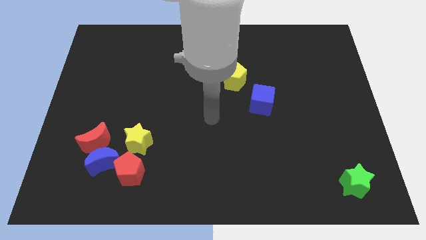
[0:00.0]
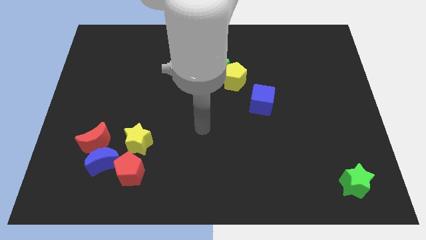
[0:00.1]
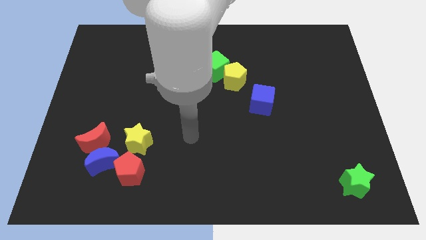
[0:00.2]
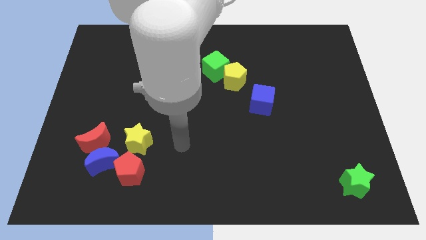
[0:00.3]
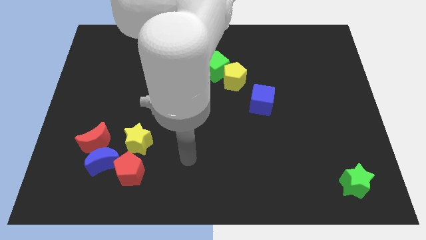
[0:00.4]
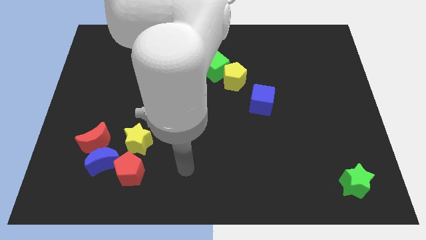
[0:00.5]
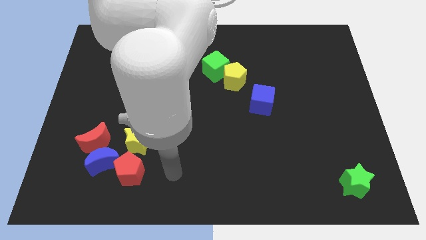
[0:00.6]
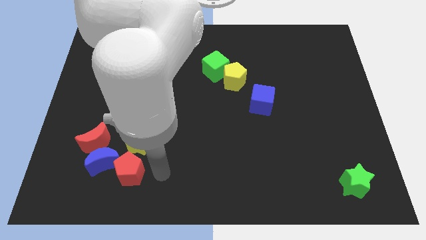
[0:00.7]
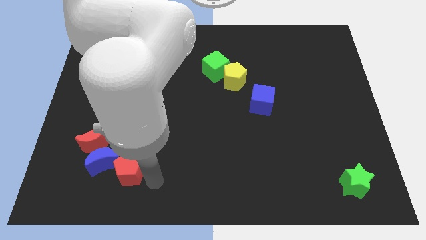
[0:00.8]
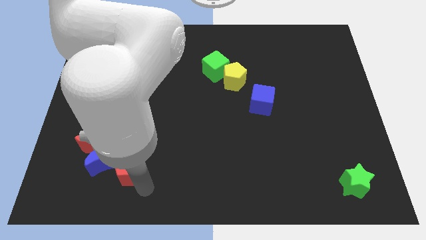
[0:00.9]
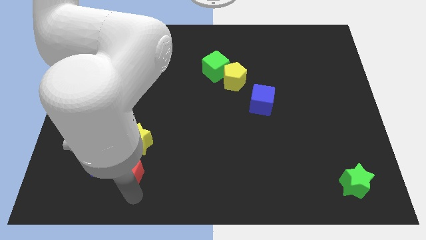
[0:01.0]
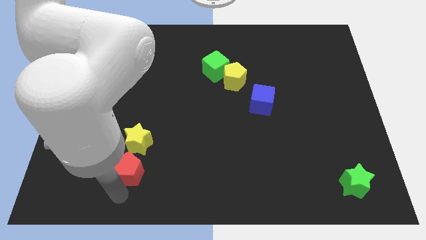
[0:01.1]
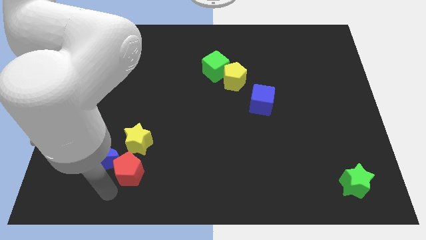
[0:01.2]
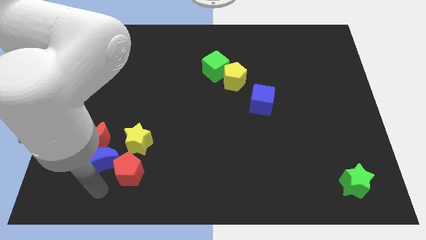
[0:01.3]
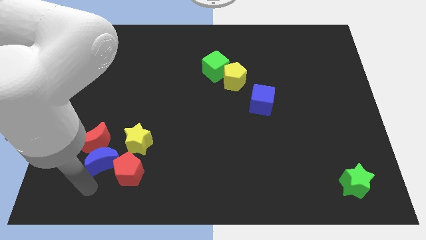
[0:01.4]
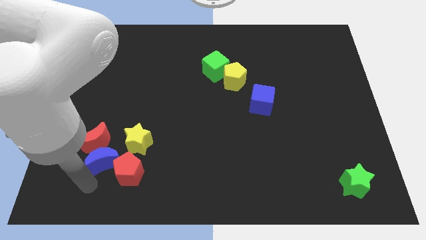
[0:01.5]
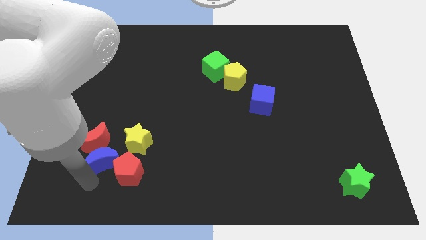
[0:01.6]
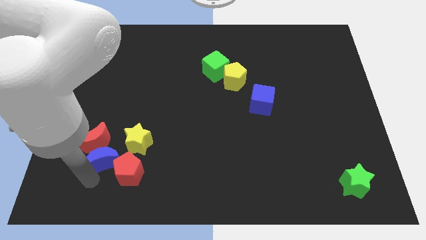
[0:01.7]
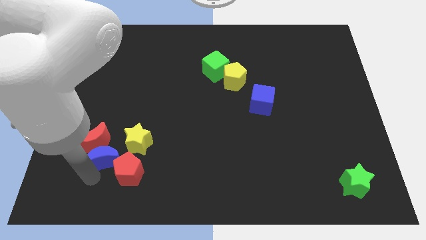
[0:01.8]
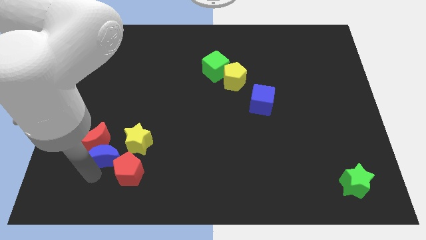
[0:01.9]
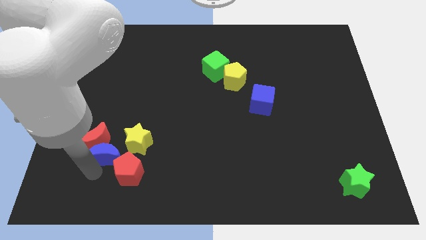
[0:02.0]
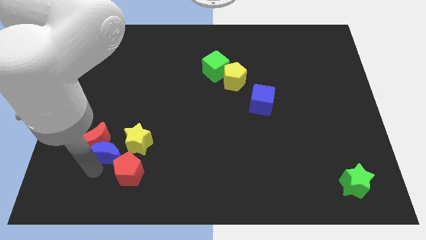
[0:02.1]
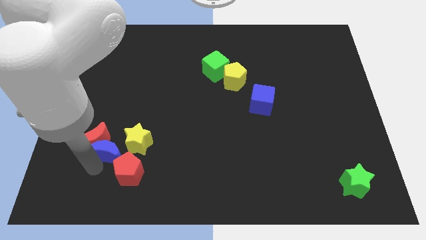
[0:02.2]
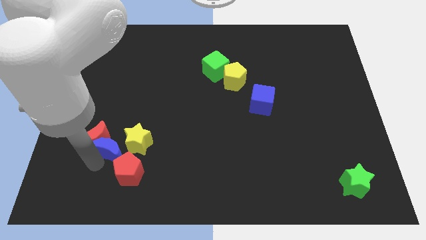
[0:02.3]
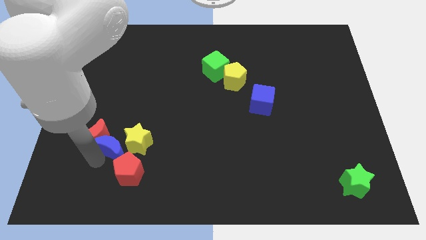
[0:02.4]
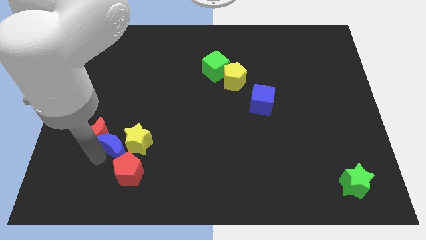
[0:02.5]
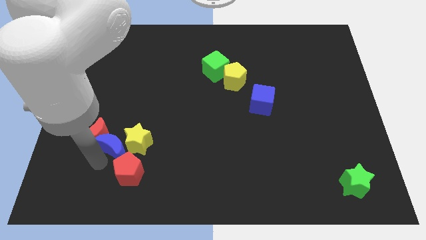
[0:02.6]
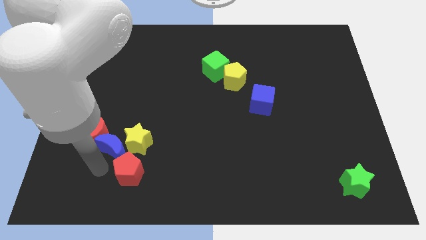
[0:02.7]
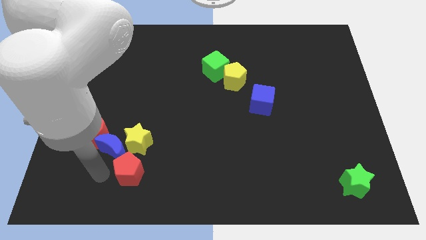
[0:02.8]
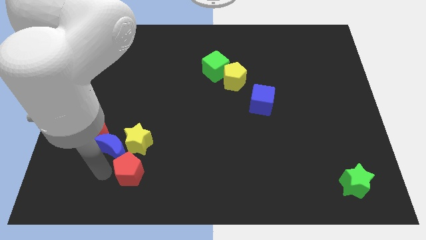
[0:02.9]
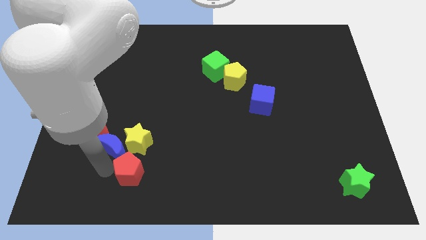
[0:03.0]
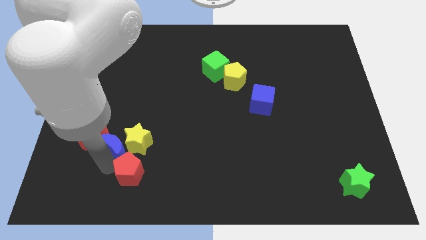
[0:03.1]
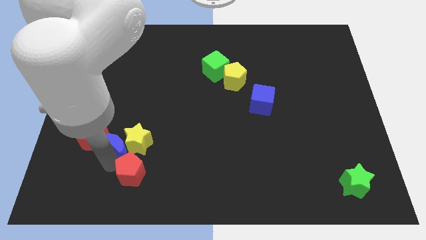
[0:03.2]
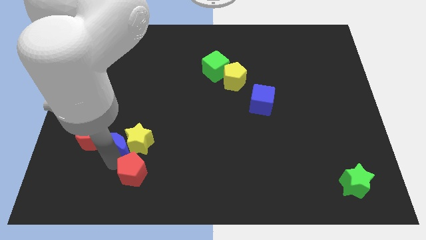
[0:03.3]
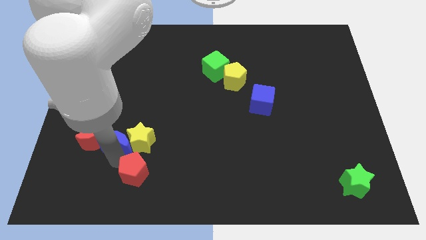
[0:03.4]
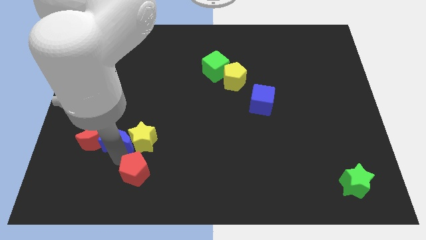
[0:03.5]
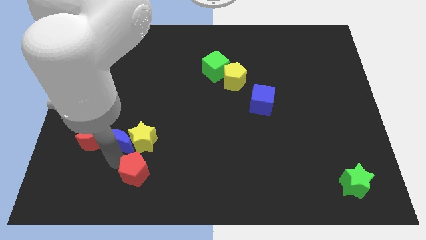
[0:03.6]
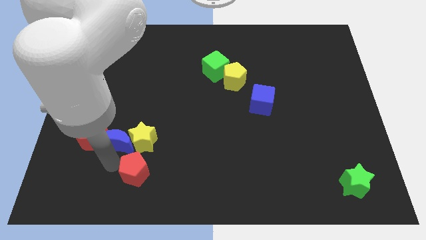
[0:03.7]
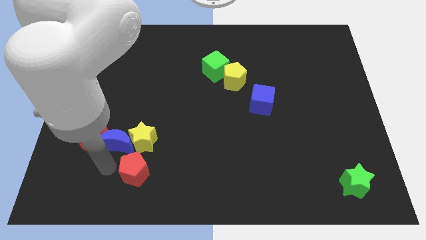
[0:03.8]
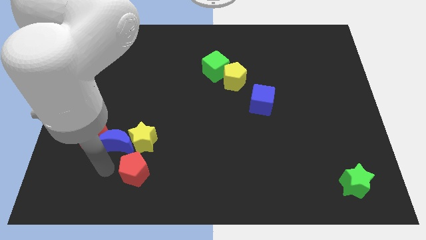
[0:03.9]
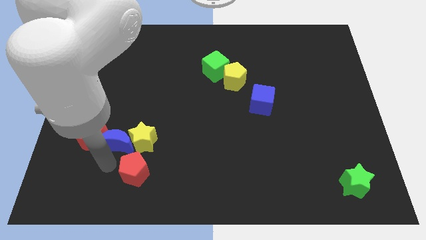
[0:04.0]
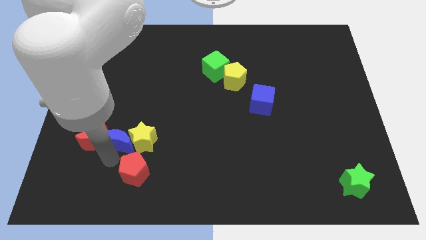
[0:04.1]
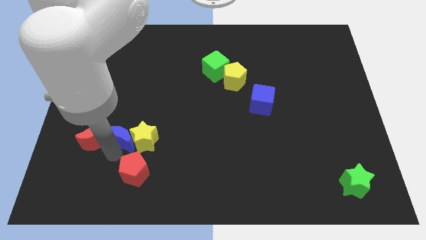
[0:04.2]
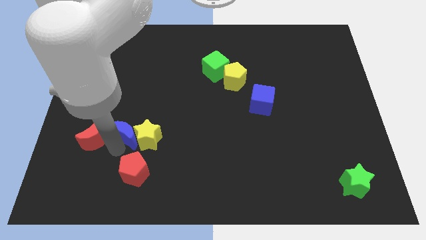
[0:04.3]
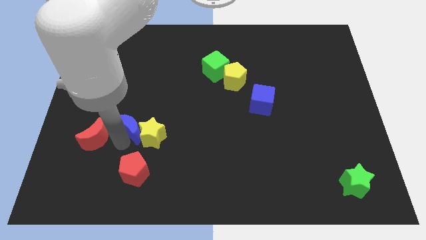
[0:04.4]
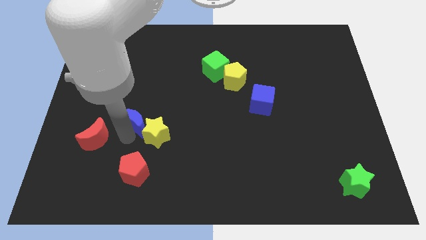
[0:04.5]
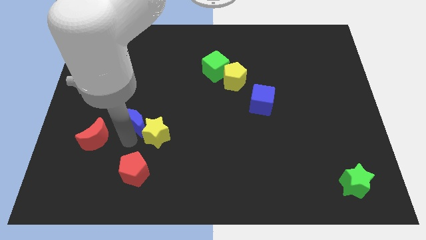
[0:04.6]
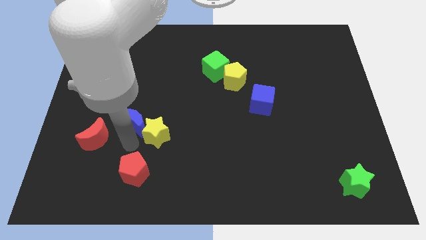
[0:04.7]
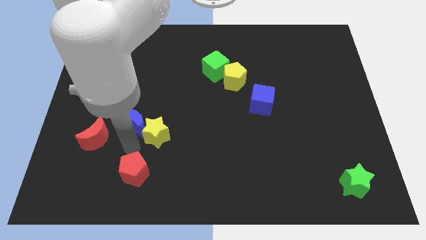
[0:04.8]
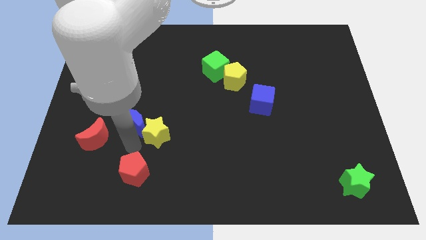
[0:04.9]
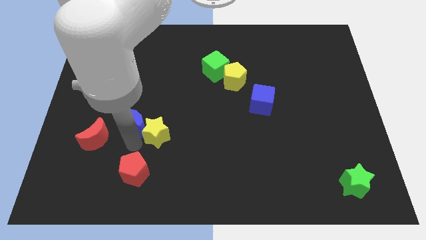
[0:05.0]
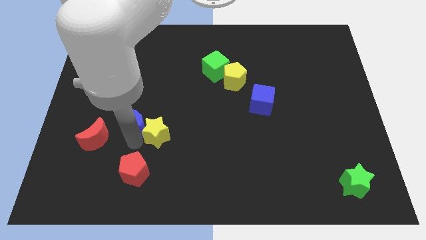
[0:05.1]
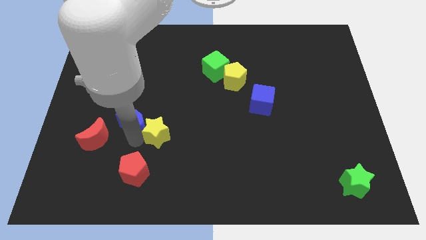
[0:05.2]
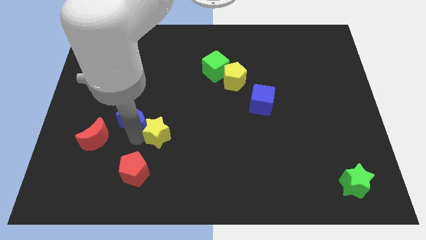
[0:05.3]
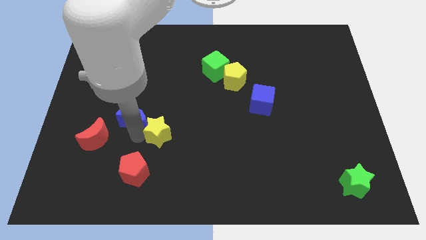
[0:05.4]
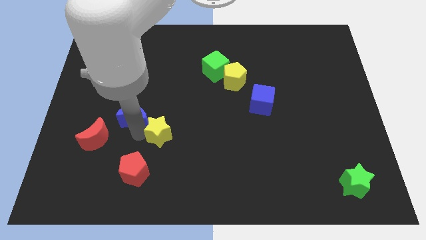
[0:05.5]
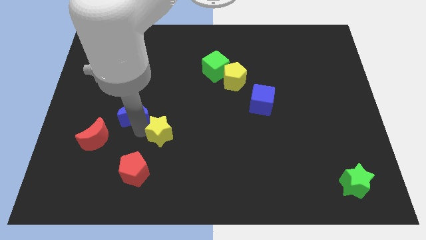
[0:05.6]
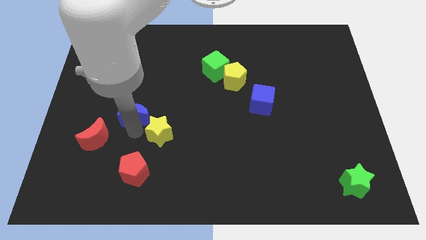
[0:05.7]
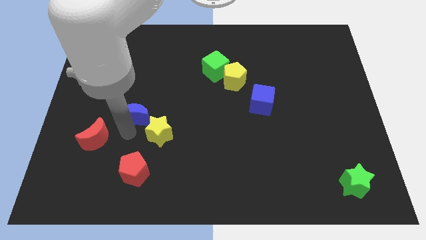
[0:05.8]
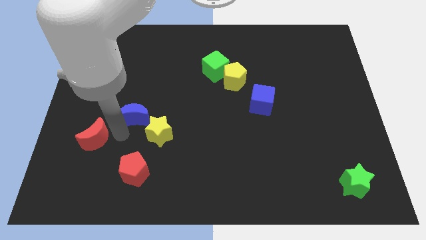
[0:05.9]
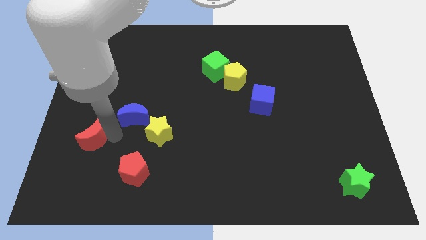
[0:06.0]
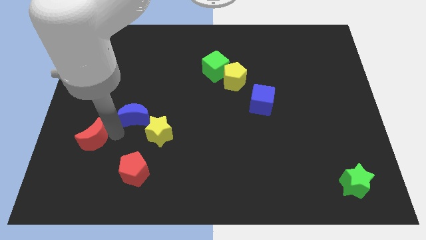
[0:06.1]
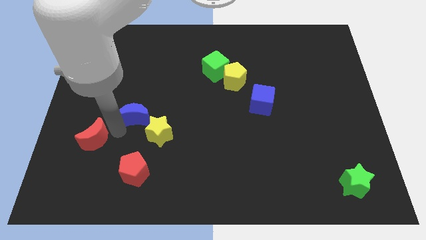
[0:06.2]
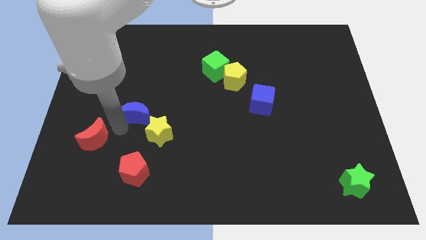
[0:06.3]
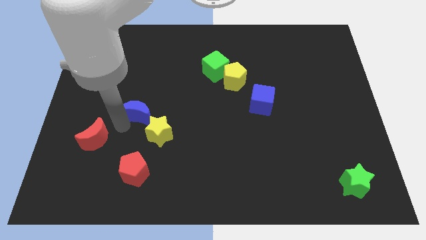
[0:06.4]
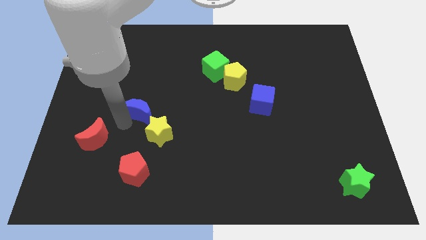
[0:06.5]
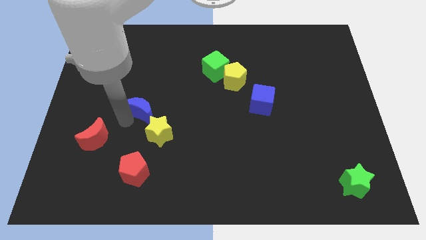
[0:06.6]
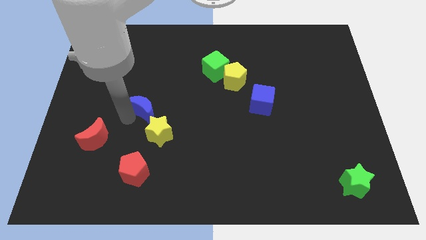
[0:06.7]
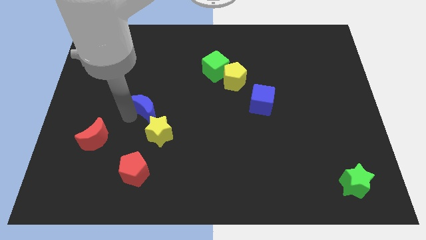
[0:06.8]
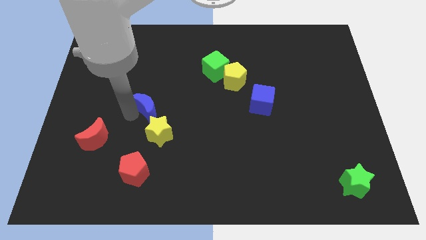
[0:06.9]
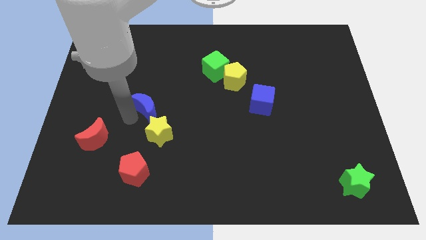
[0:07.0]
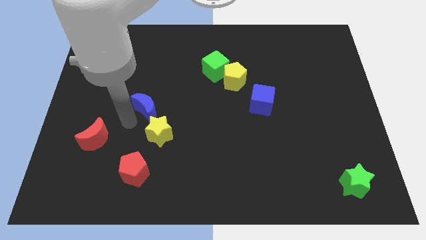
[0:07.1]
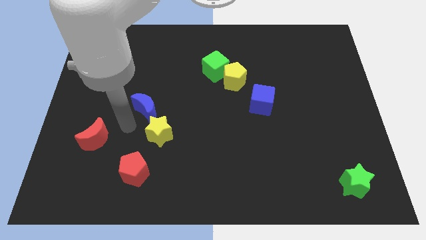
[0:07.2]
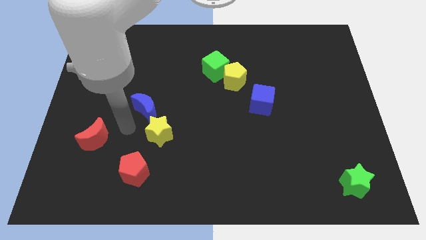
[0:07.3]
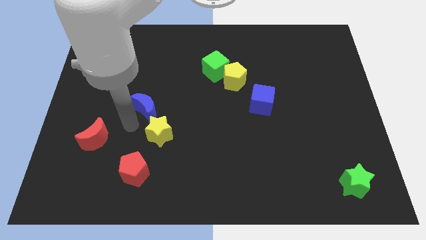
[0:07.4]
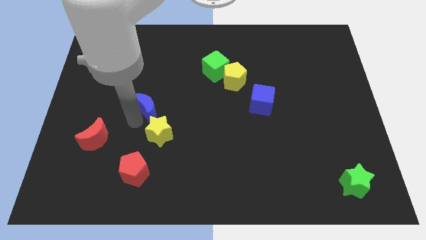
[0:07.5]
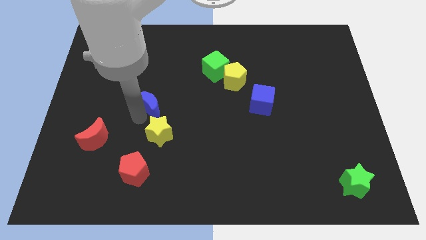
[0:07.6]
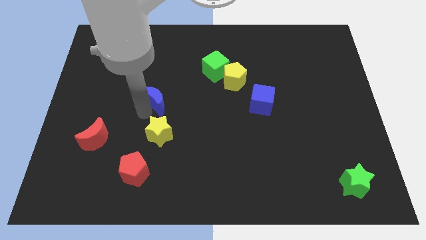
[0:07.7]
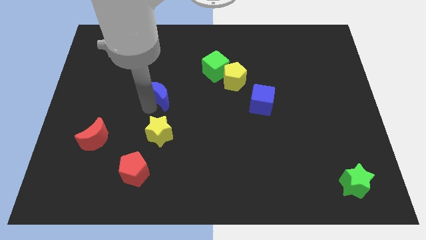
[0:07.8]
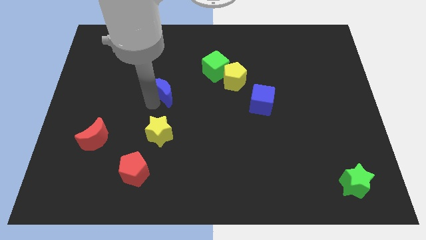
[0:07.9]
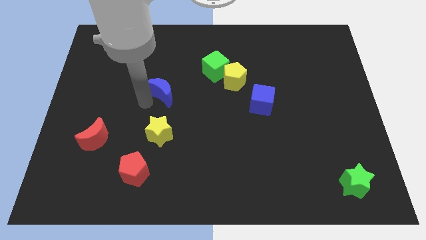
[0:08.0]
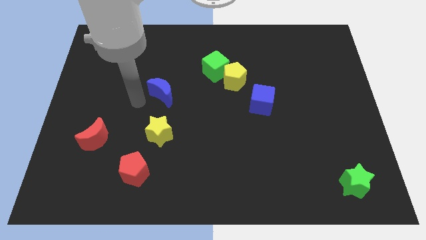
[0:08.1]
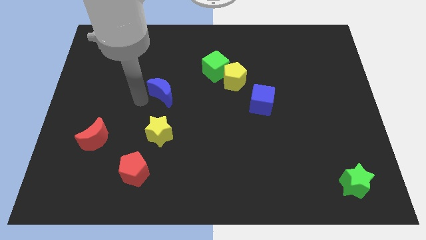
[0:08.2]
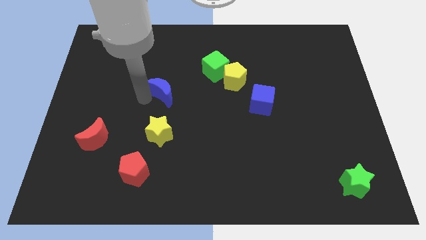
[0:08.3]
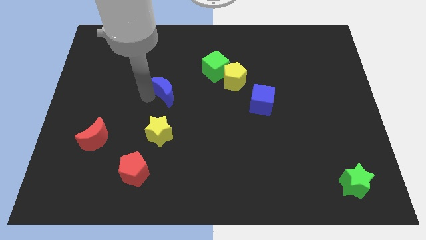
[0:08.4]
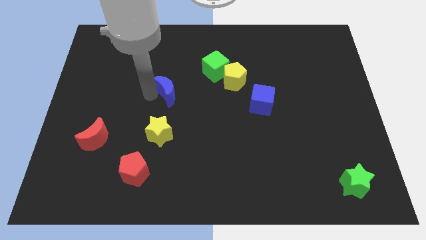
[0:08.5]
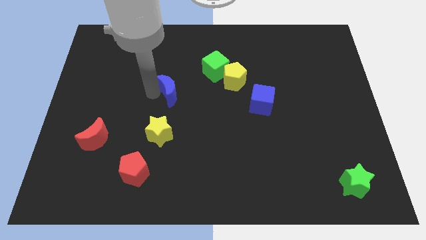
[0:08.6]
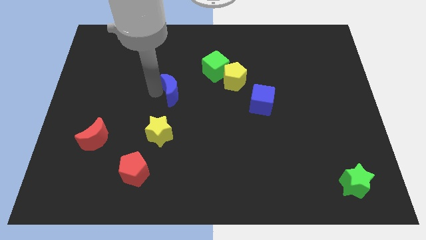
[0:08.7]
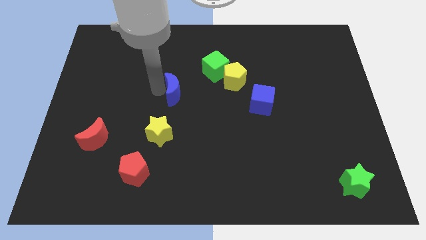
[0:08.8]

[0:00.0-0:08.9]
slide the blue moon to the bottom left of the green cube
